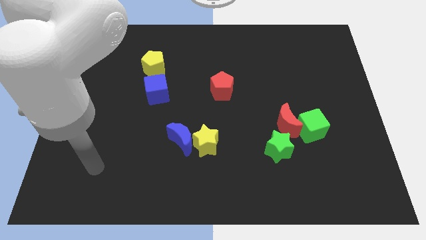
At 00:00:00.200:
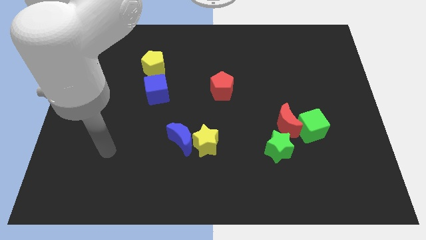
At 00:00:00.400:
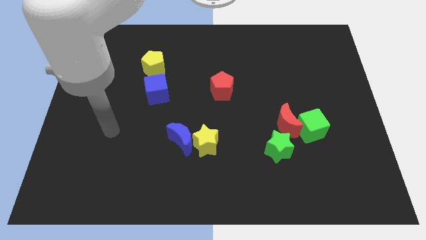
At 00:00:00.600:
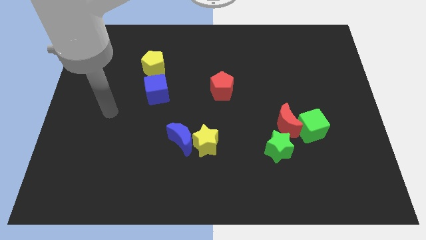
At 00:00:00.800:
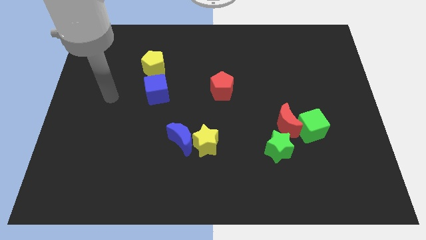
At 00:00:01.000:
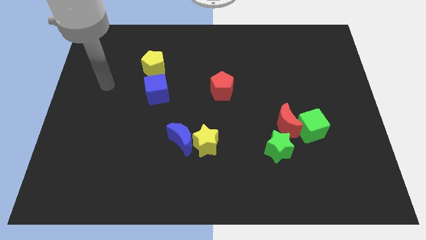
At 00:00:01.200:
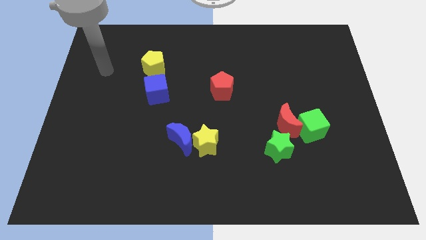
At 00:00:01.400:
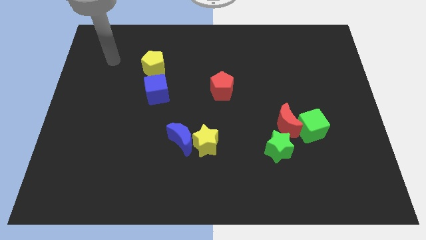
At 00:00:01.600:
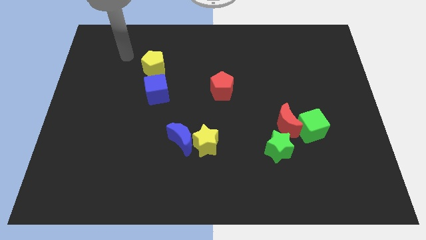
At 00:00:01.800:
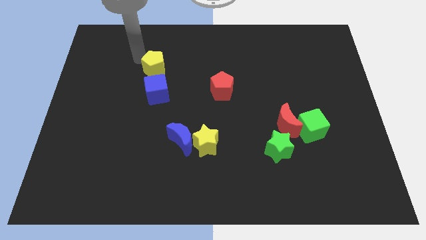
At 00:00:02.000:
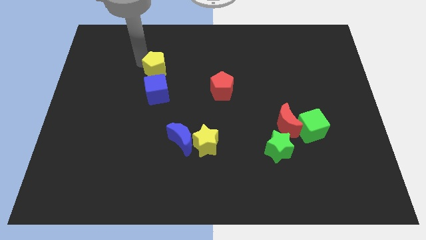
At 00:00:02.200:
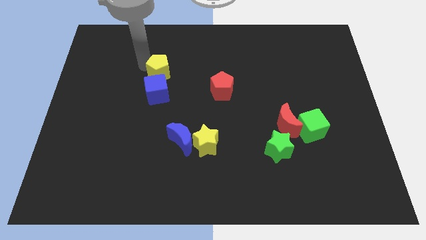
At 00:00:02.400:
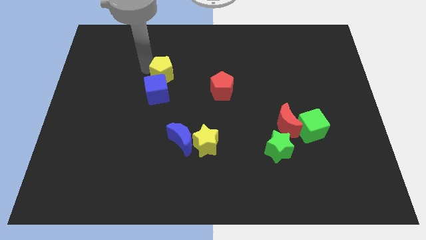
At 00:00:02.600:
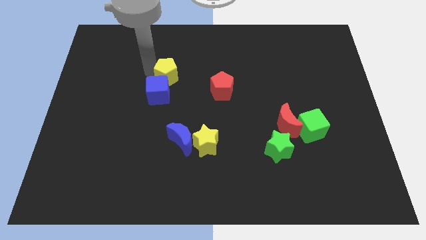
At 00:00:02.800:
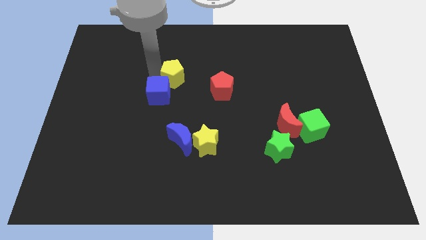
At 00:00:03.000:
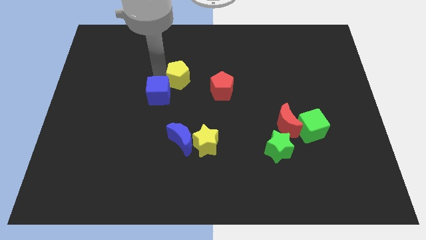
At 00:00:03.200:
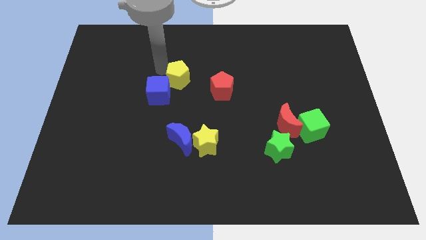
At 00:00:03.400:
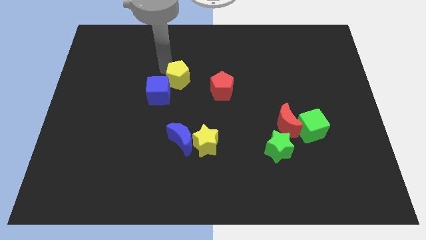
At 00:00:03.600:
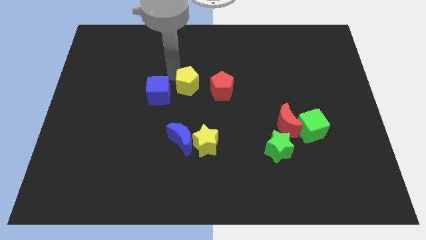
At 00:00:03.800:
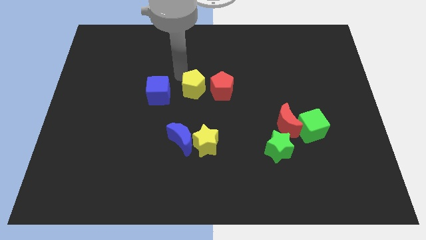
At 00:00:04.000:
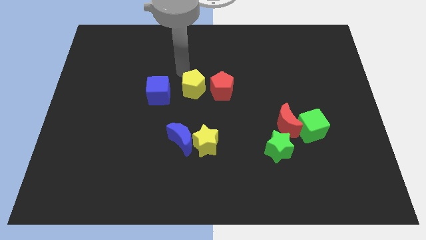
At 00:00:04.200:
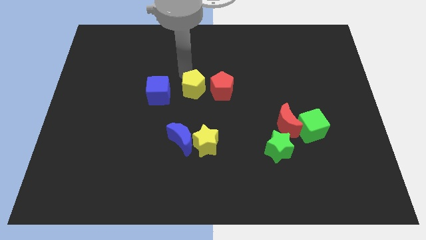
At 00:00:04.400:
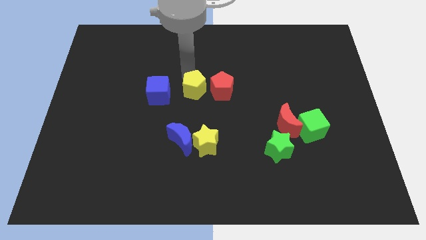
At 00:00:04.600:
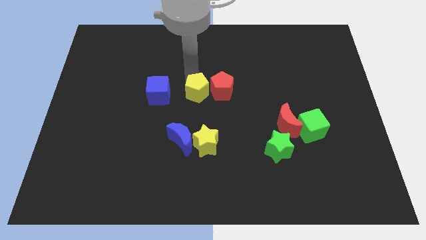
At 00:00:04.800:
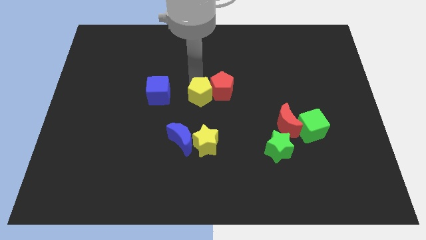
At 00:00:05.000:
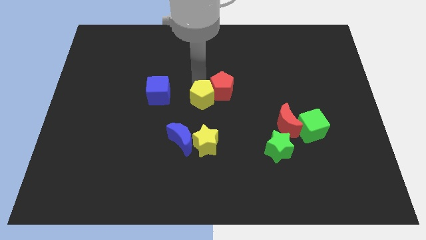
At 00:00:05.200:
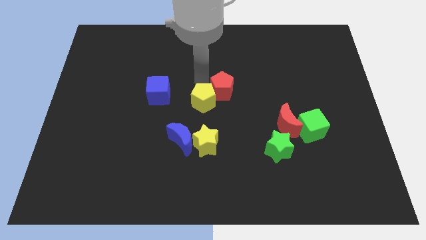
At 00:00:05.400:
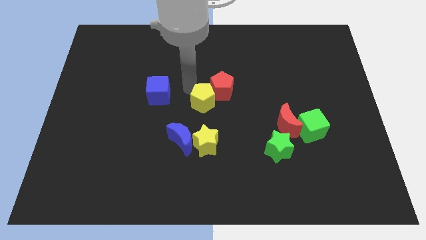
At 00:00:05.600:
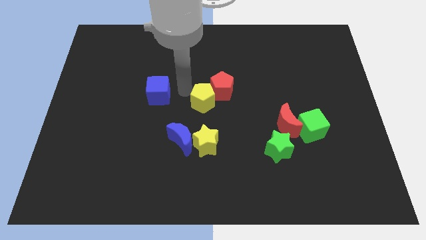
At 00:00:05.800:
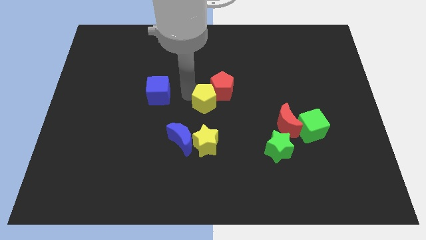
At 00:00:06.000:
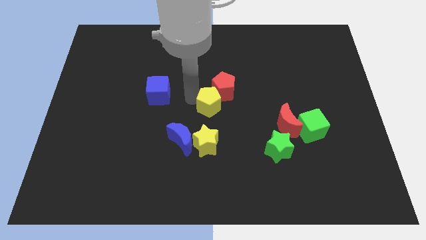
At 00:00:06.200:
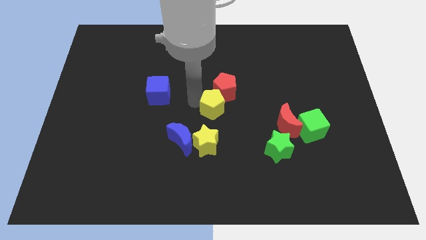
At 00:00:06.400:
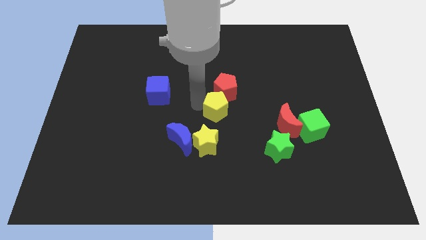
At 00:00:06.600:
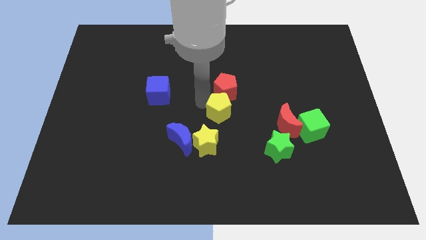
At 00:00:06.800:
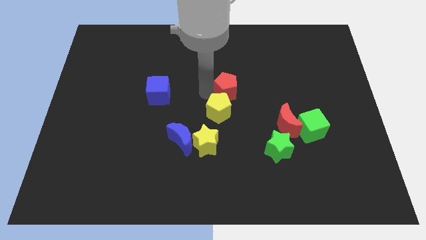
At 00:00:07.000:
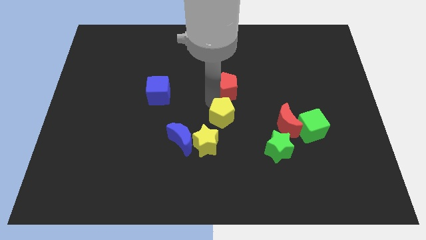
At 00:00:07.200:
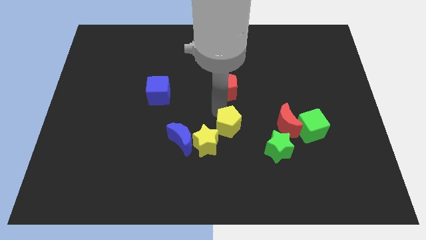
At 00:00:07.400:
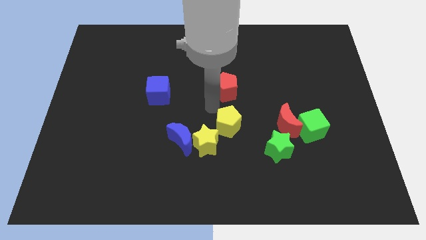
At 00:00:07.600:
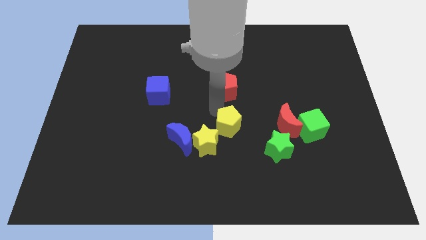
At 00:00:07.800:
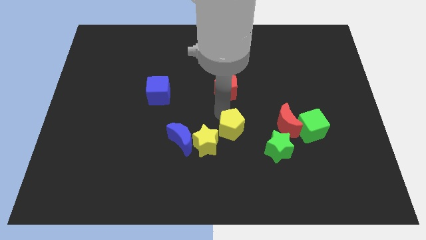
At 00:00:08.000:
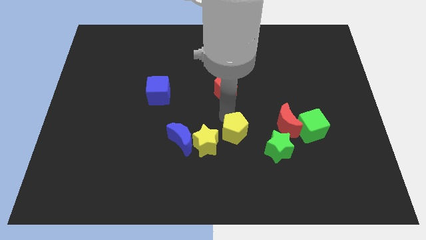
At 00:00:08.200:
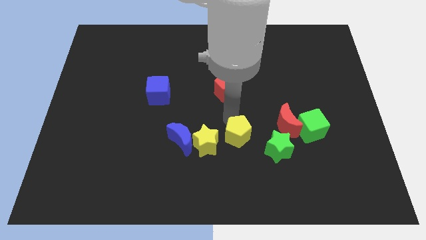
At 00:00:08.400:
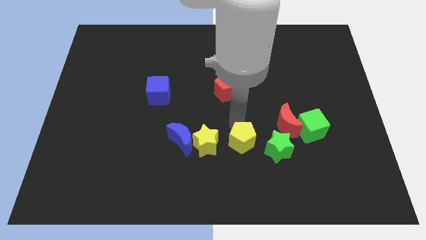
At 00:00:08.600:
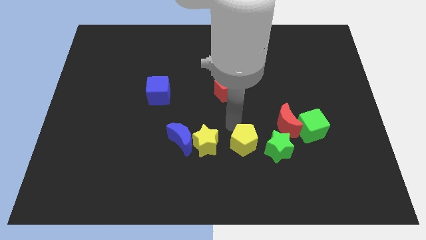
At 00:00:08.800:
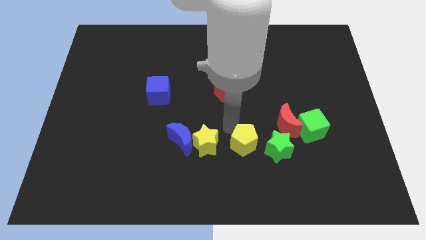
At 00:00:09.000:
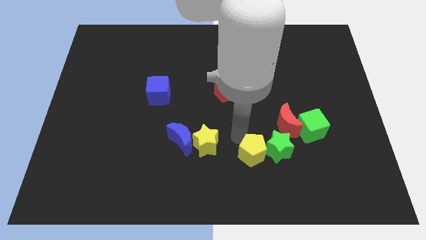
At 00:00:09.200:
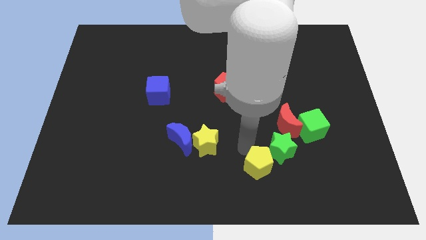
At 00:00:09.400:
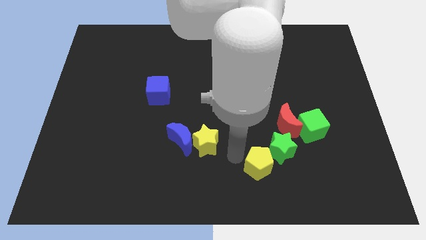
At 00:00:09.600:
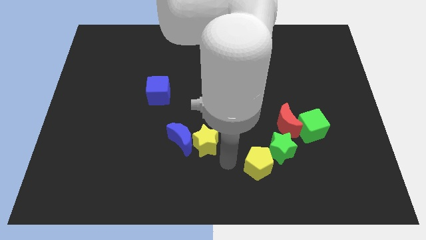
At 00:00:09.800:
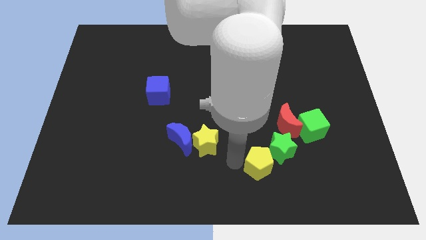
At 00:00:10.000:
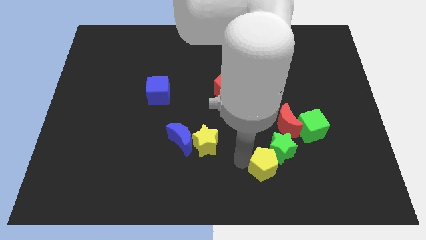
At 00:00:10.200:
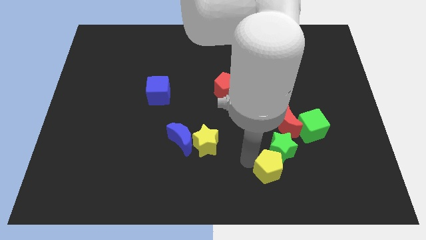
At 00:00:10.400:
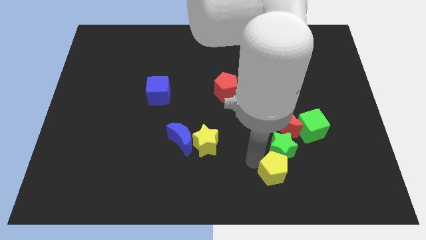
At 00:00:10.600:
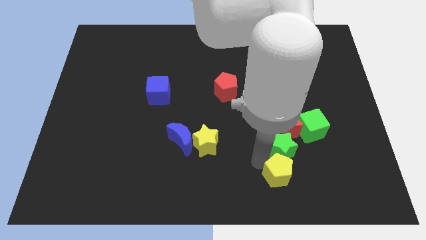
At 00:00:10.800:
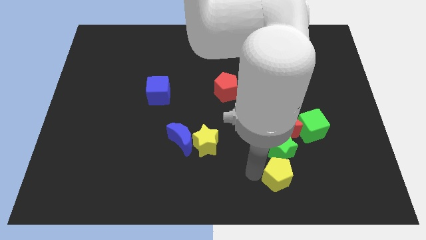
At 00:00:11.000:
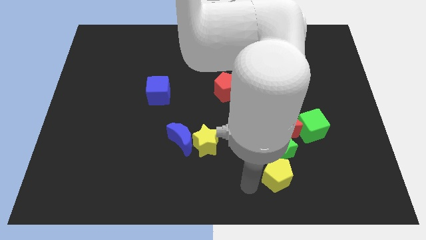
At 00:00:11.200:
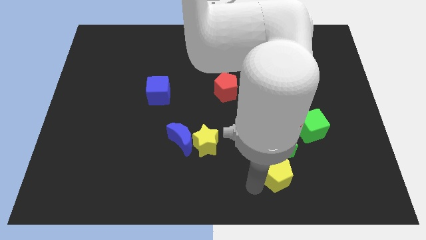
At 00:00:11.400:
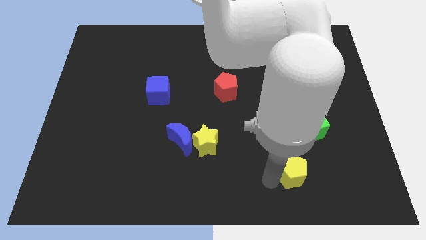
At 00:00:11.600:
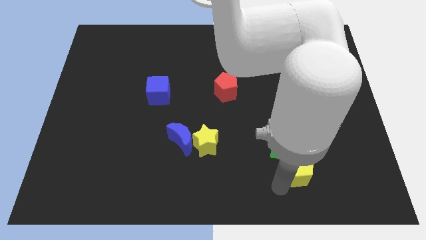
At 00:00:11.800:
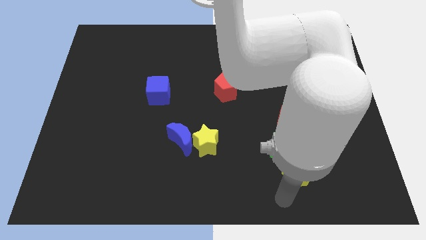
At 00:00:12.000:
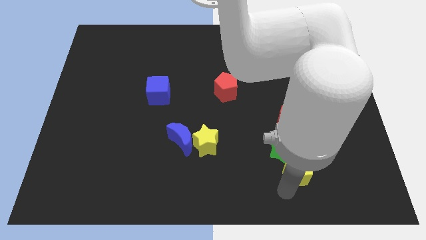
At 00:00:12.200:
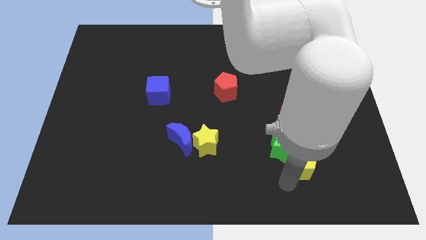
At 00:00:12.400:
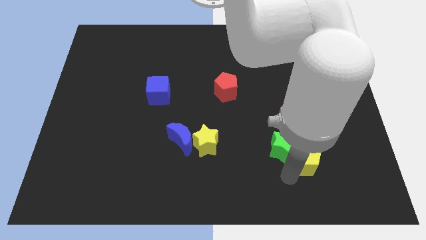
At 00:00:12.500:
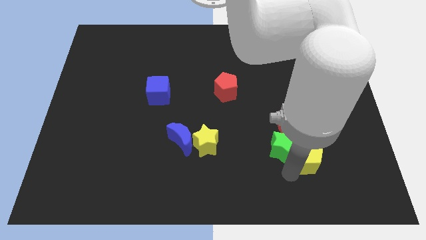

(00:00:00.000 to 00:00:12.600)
put the yellow pentagon to the bottom right of the red moon
